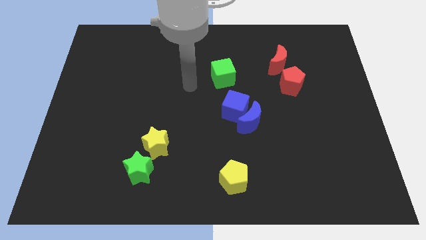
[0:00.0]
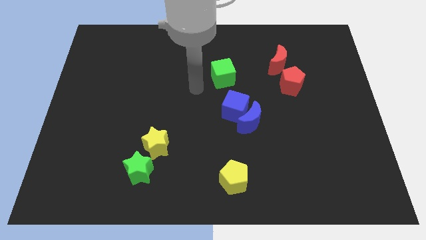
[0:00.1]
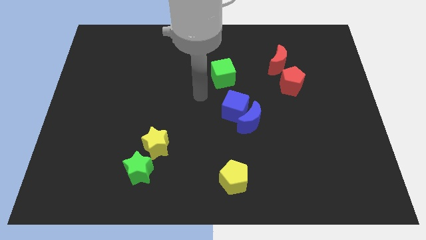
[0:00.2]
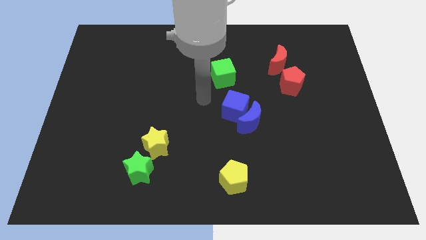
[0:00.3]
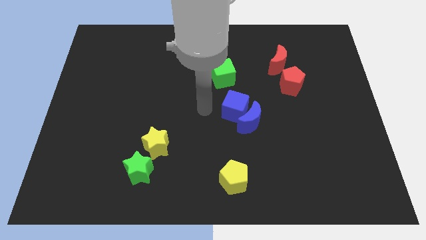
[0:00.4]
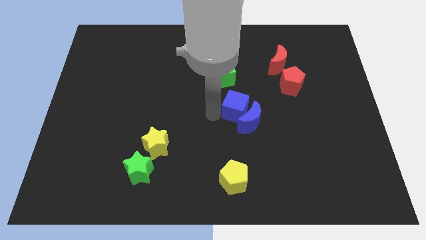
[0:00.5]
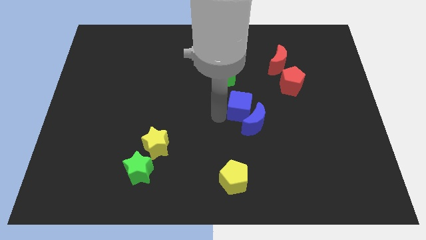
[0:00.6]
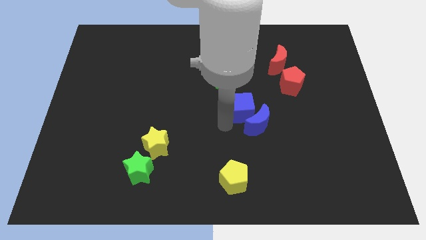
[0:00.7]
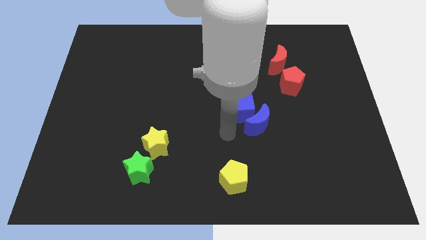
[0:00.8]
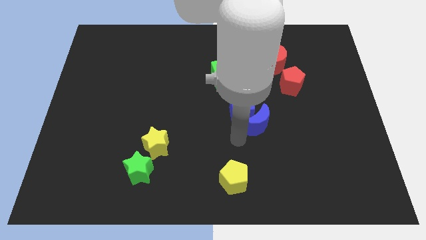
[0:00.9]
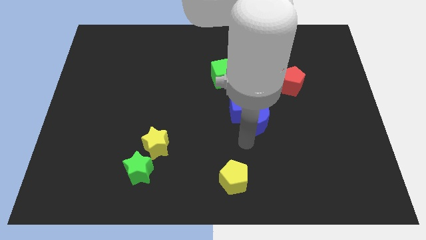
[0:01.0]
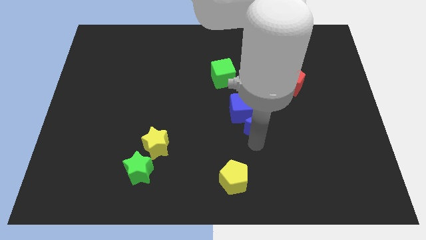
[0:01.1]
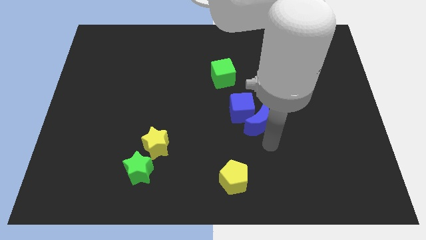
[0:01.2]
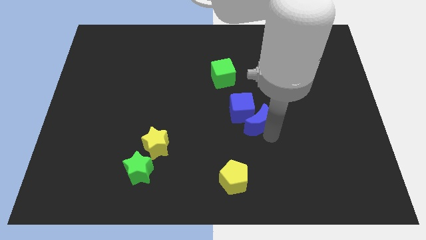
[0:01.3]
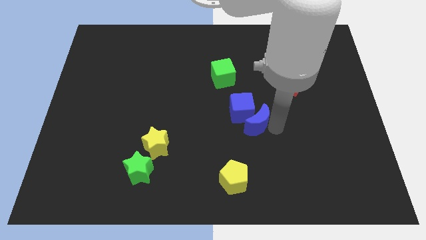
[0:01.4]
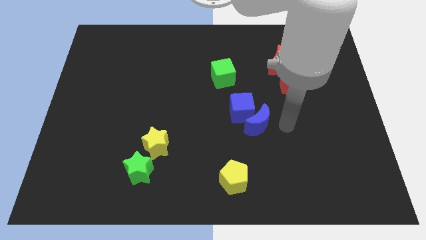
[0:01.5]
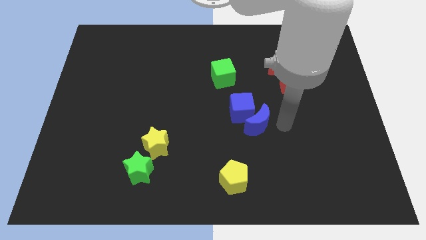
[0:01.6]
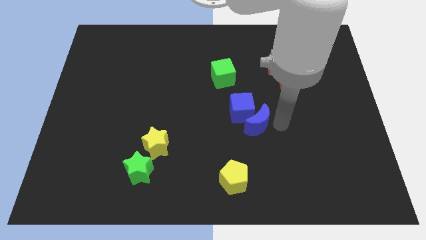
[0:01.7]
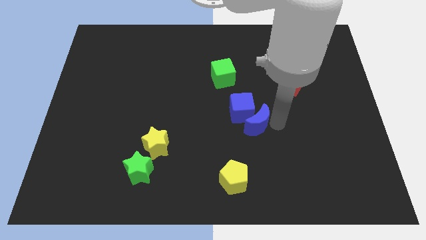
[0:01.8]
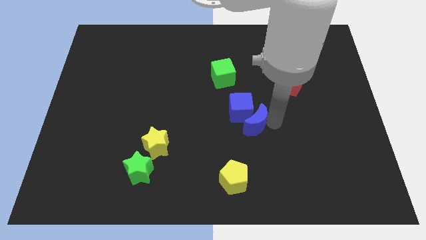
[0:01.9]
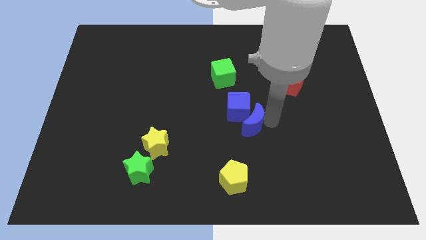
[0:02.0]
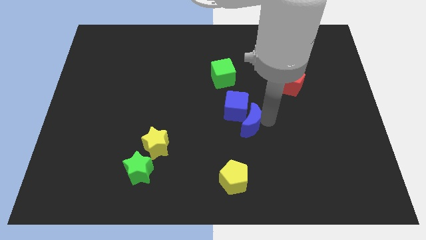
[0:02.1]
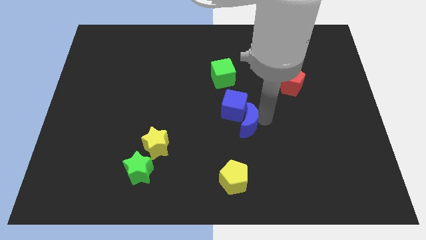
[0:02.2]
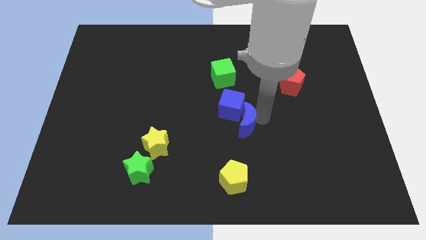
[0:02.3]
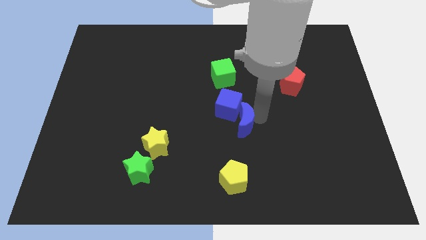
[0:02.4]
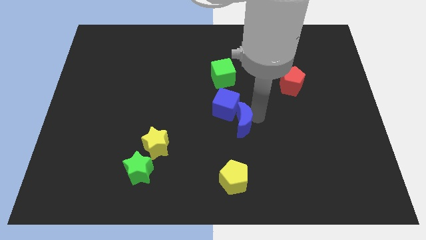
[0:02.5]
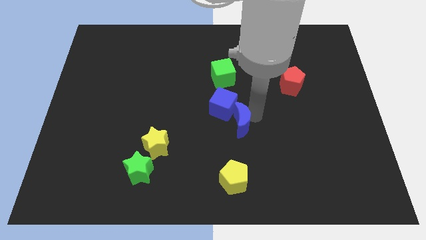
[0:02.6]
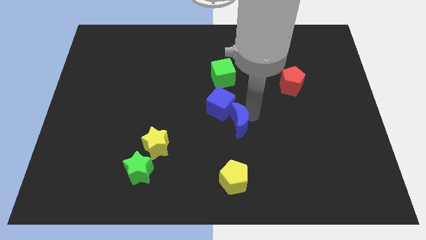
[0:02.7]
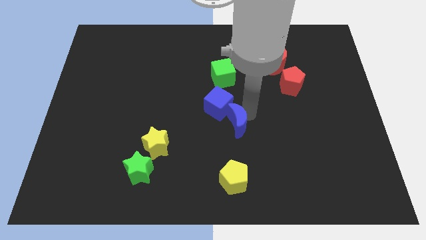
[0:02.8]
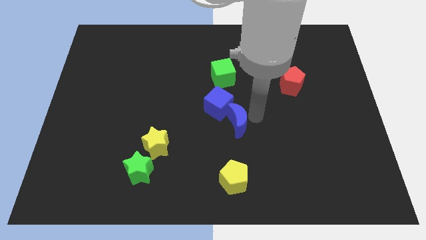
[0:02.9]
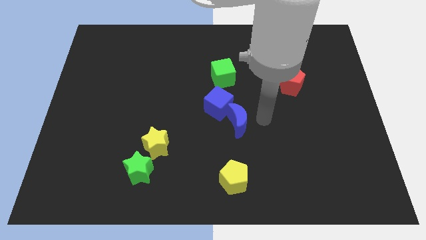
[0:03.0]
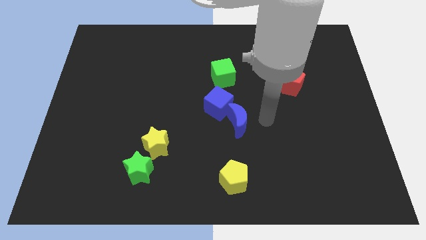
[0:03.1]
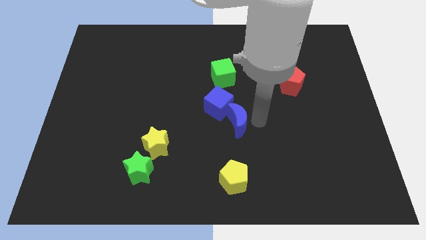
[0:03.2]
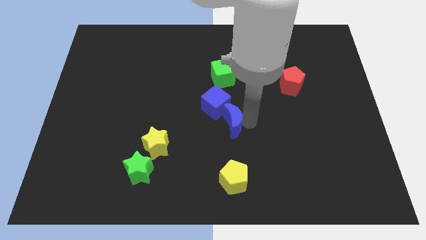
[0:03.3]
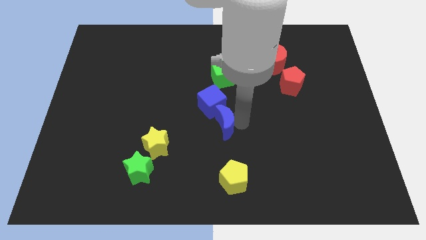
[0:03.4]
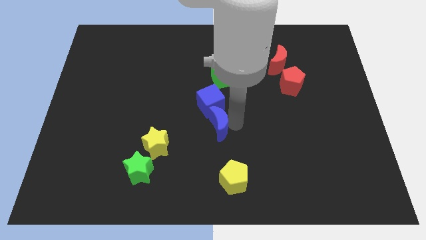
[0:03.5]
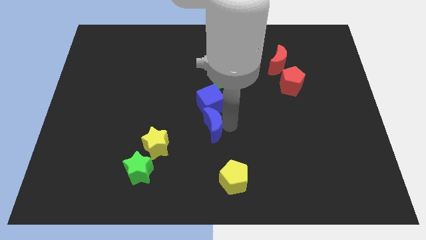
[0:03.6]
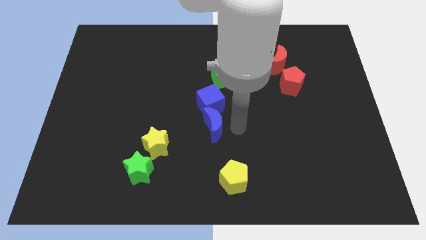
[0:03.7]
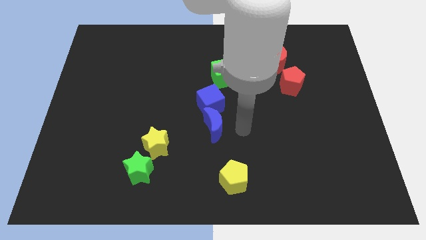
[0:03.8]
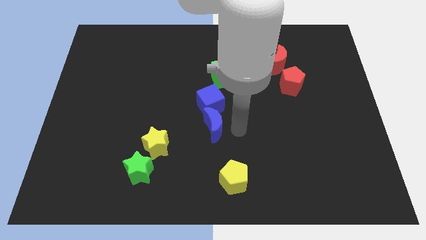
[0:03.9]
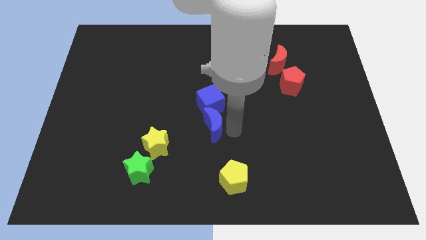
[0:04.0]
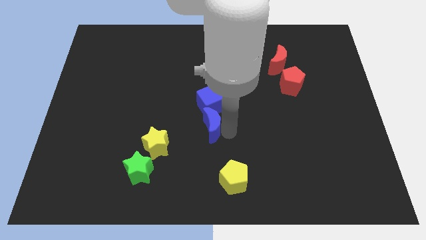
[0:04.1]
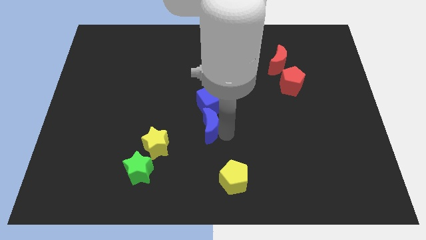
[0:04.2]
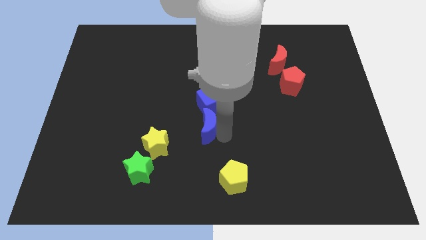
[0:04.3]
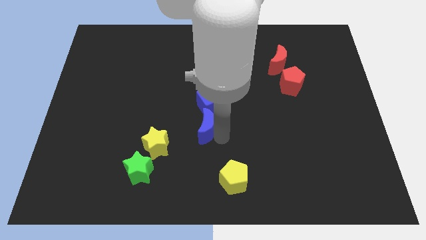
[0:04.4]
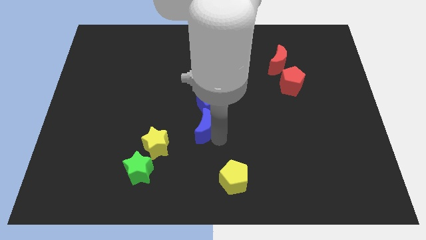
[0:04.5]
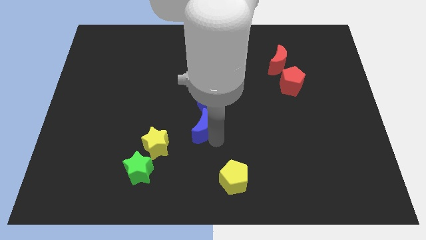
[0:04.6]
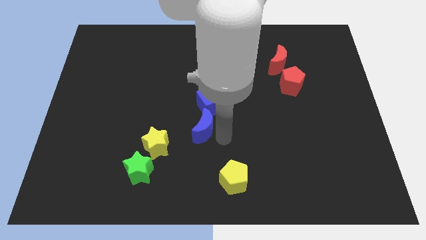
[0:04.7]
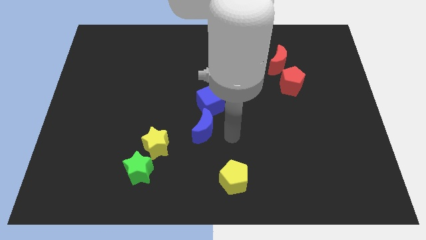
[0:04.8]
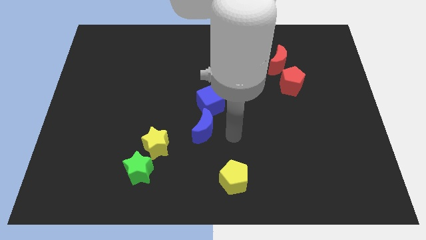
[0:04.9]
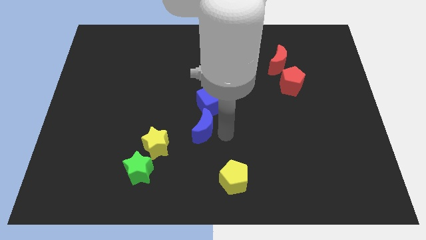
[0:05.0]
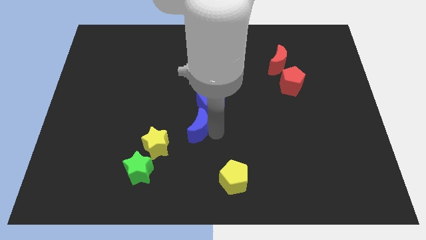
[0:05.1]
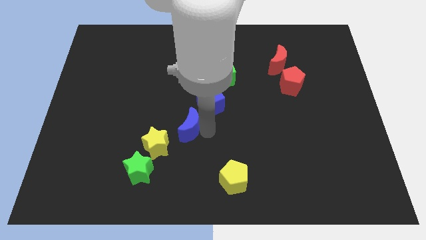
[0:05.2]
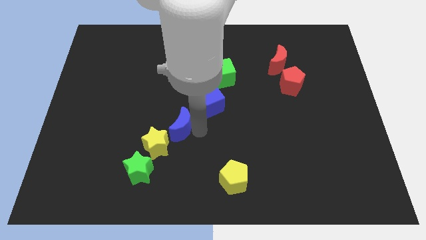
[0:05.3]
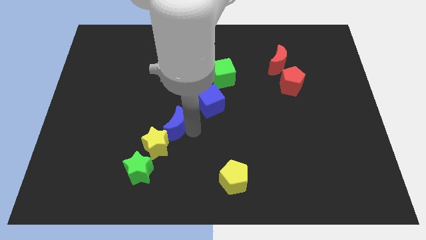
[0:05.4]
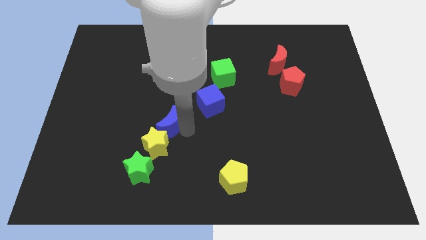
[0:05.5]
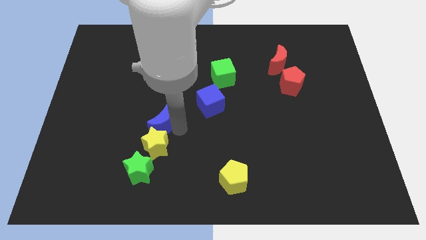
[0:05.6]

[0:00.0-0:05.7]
move the blue moon left

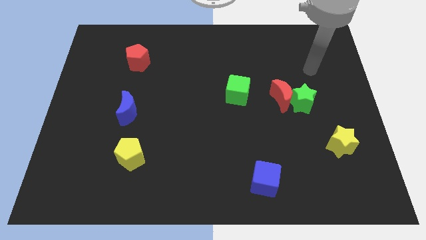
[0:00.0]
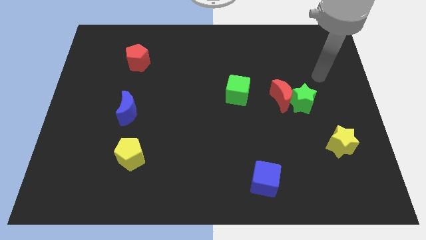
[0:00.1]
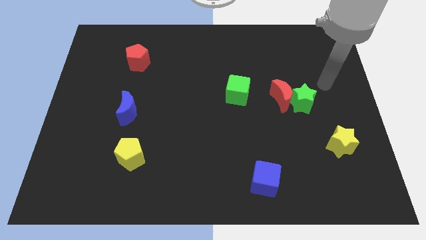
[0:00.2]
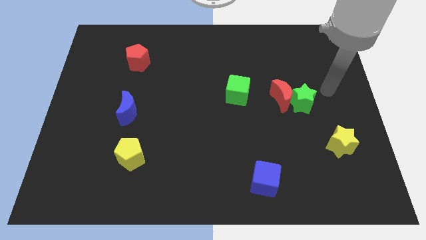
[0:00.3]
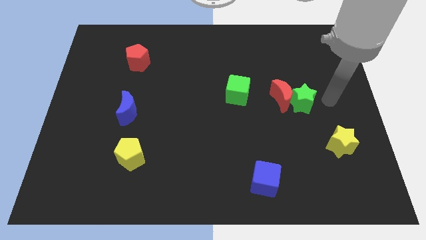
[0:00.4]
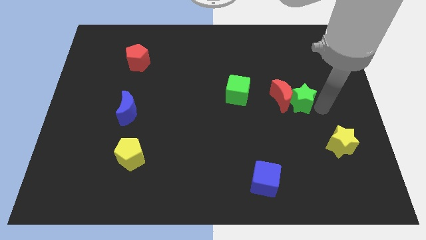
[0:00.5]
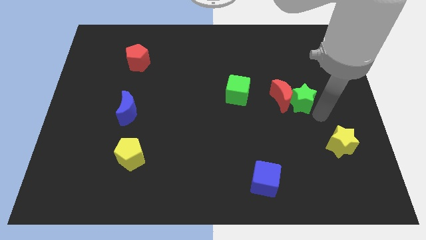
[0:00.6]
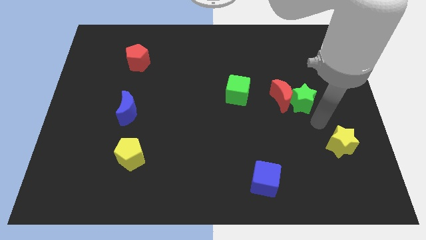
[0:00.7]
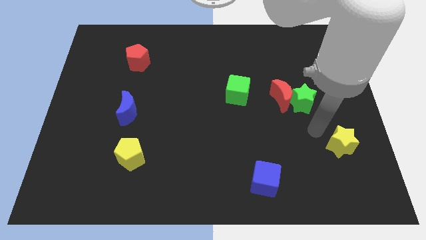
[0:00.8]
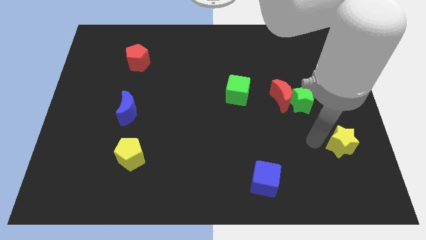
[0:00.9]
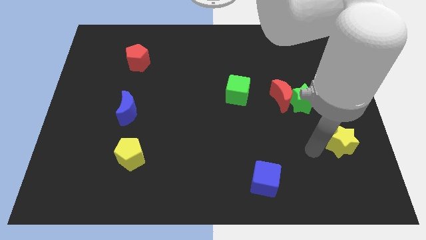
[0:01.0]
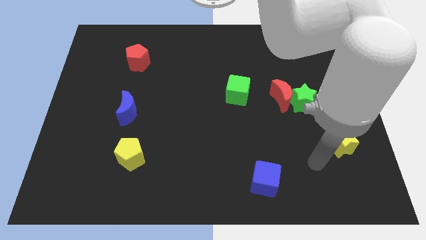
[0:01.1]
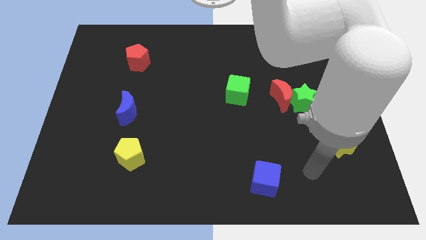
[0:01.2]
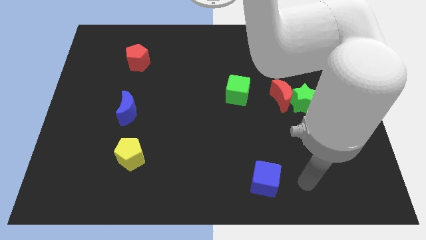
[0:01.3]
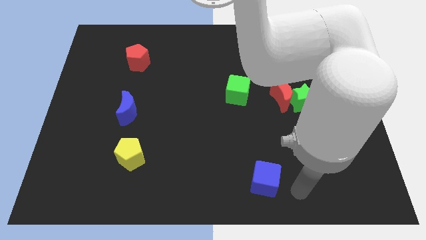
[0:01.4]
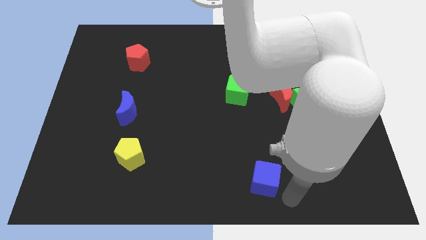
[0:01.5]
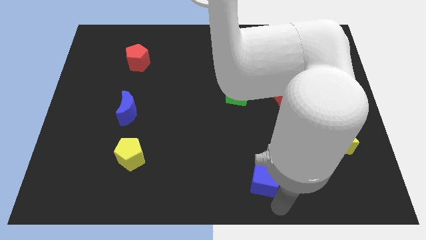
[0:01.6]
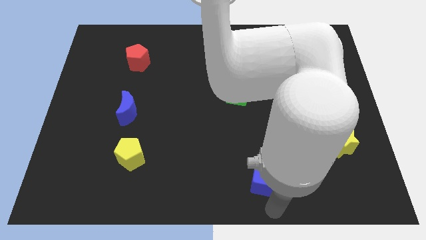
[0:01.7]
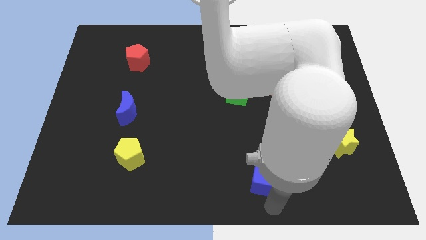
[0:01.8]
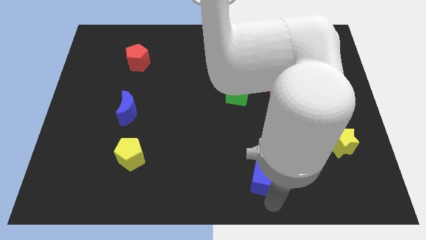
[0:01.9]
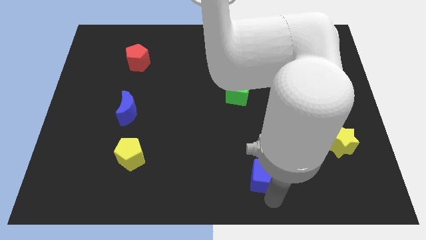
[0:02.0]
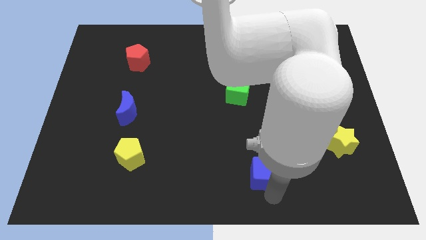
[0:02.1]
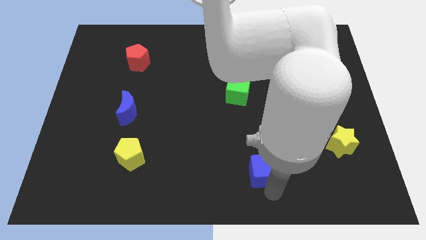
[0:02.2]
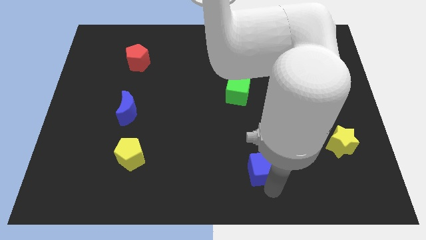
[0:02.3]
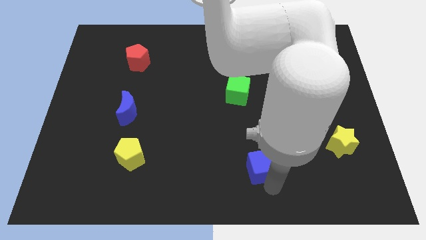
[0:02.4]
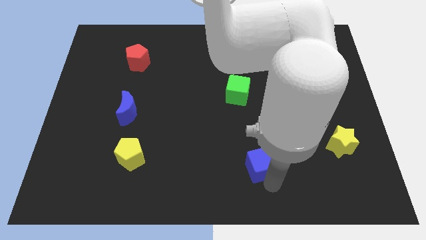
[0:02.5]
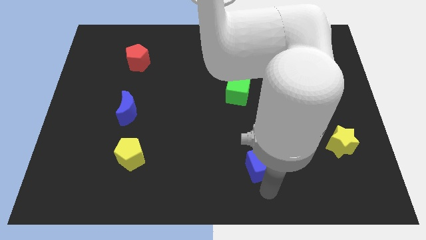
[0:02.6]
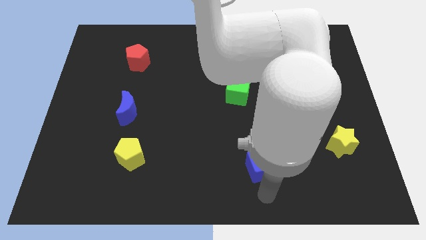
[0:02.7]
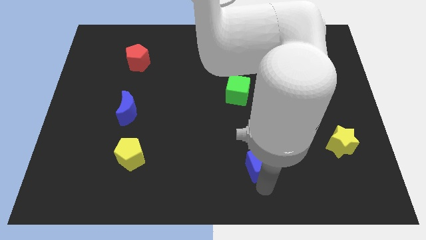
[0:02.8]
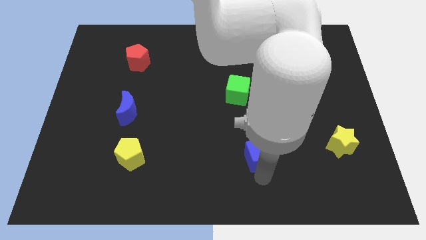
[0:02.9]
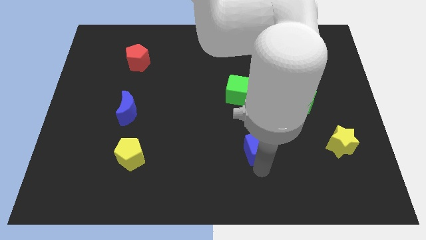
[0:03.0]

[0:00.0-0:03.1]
slightly move the blue cube up
